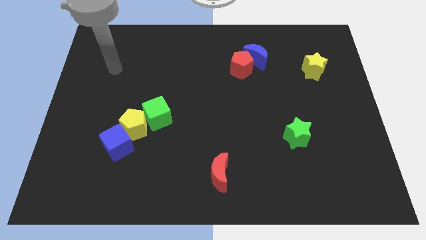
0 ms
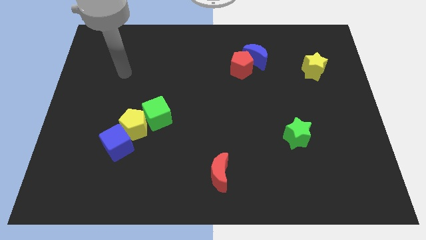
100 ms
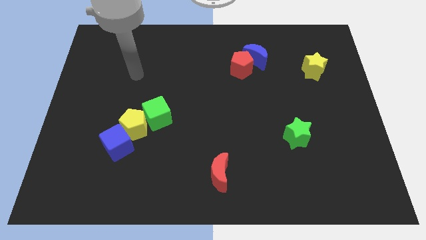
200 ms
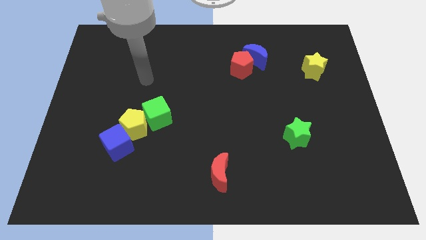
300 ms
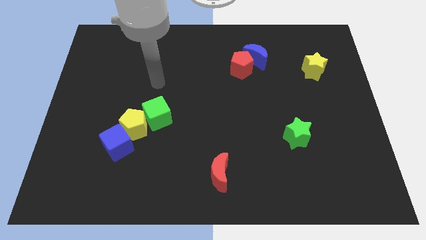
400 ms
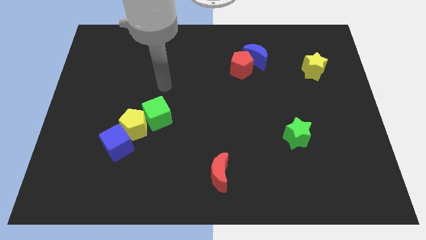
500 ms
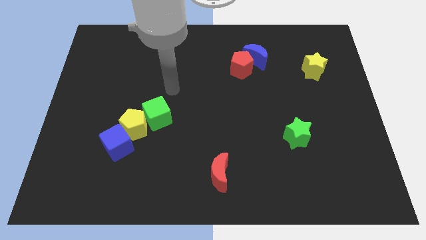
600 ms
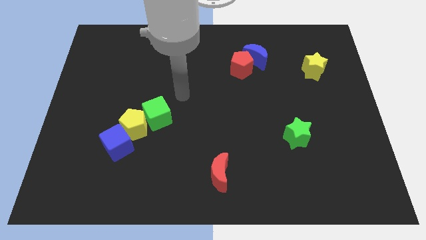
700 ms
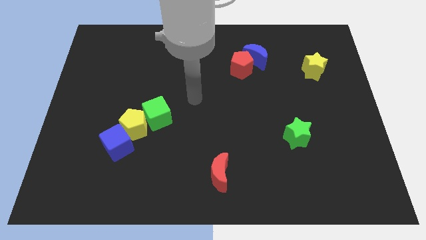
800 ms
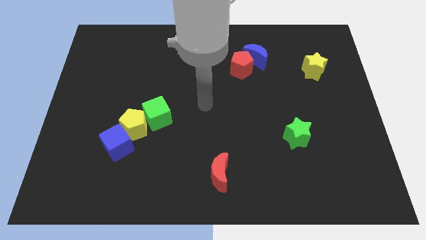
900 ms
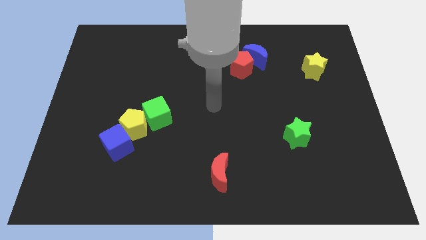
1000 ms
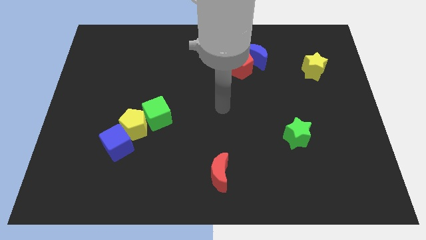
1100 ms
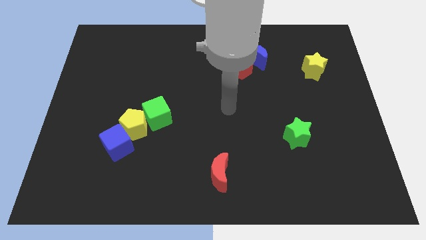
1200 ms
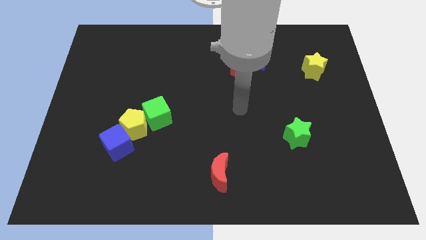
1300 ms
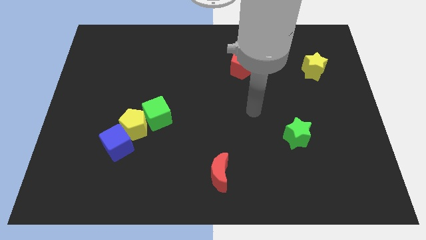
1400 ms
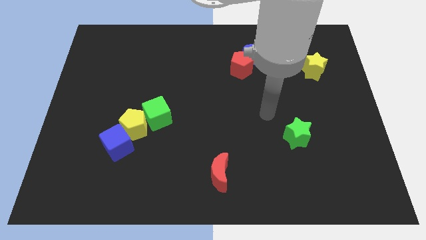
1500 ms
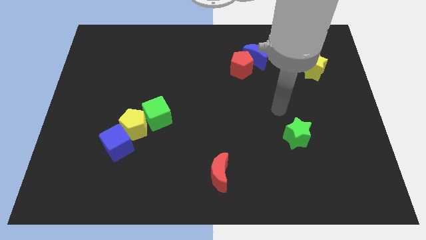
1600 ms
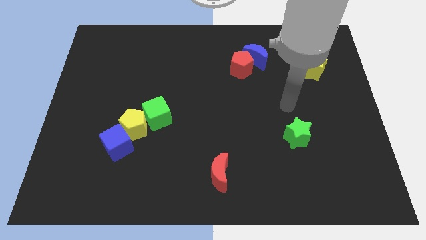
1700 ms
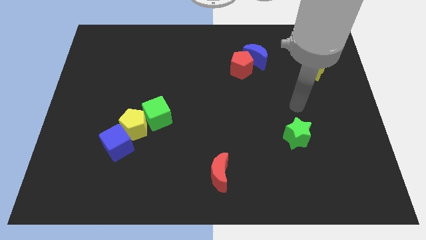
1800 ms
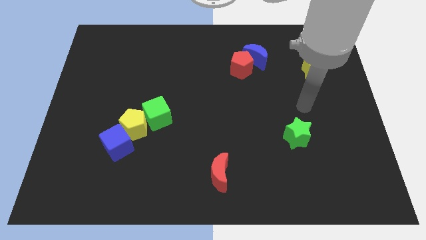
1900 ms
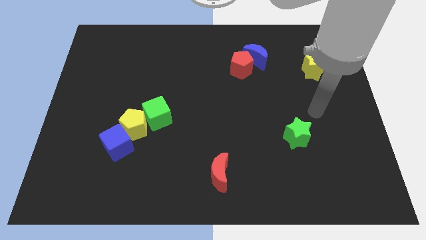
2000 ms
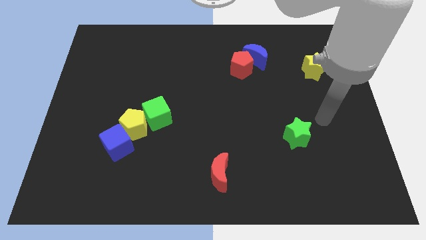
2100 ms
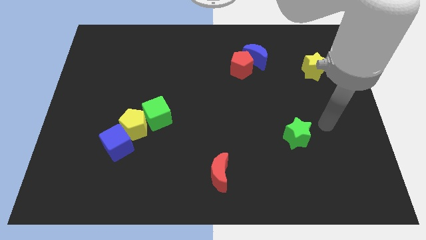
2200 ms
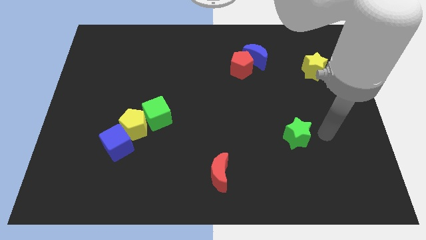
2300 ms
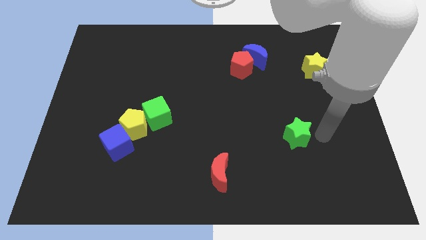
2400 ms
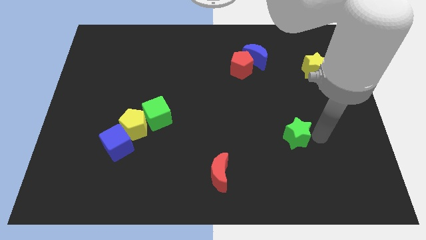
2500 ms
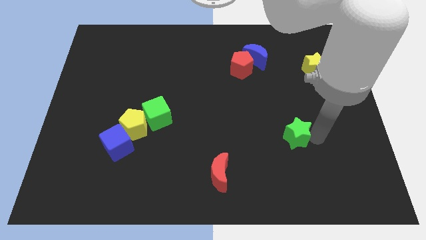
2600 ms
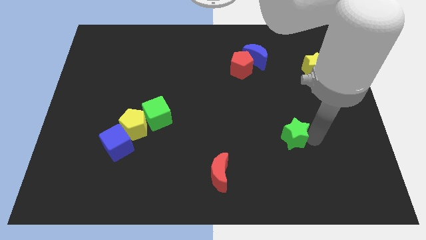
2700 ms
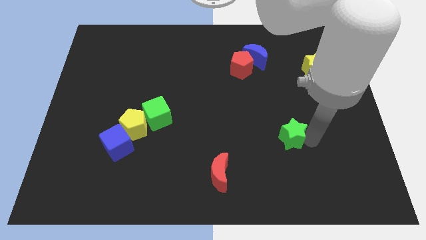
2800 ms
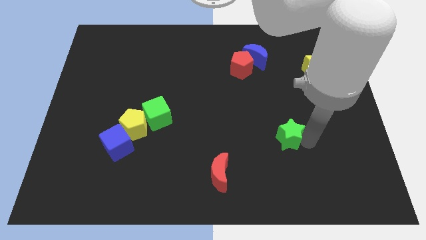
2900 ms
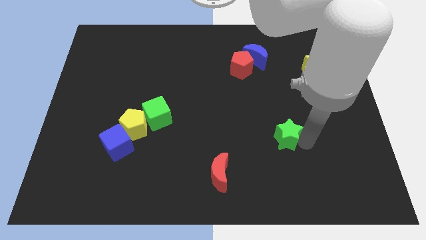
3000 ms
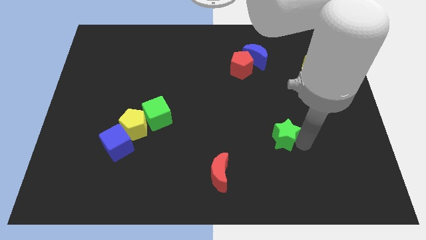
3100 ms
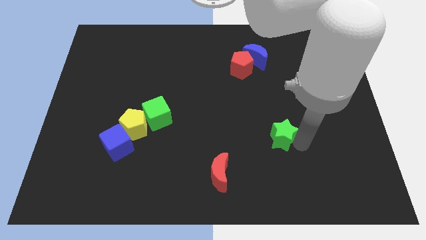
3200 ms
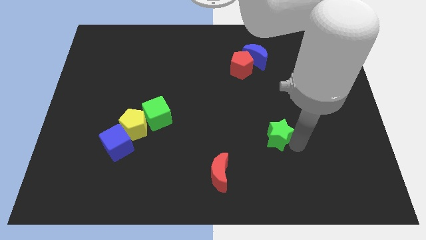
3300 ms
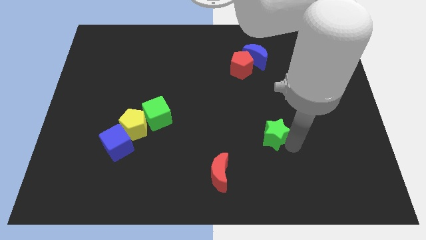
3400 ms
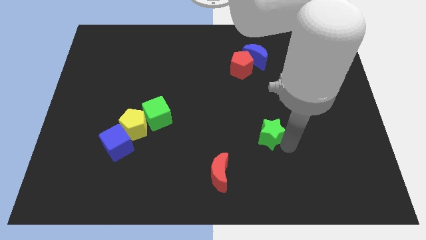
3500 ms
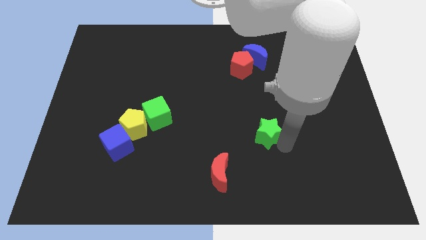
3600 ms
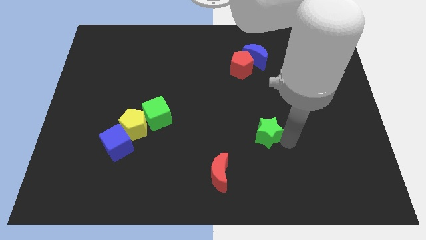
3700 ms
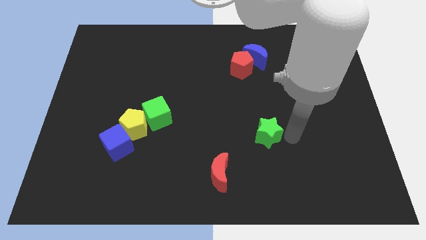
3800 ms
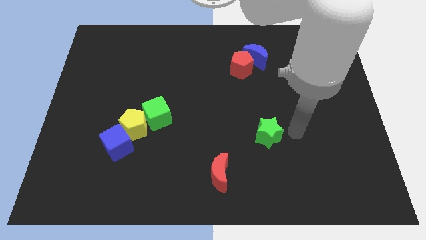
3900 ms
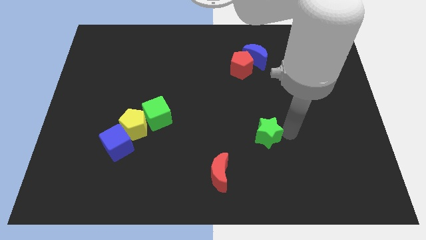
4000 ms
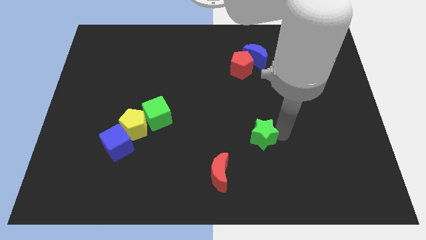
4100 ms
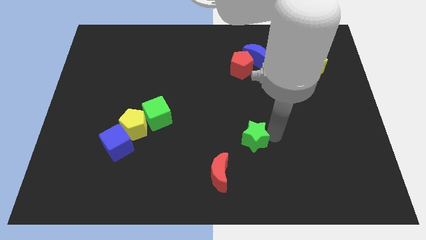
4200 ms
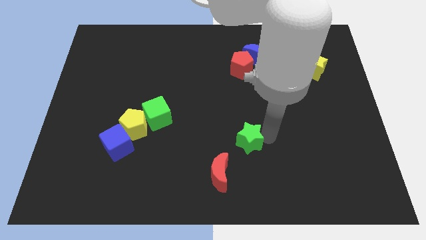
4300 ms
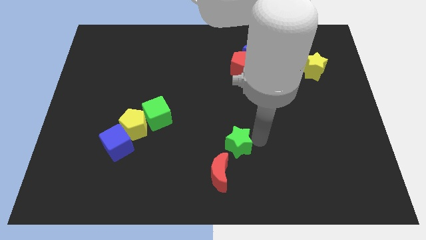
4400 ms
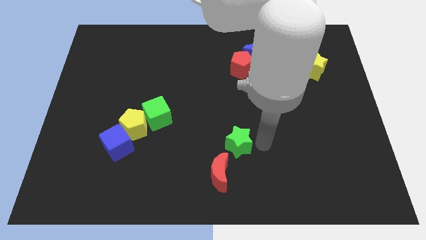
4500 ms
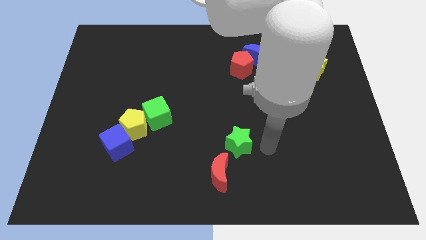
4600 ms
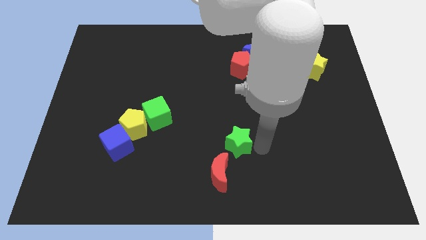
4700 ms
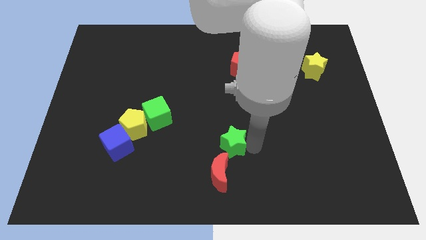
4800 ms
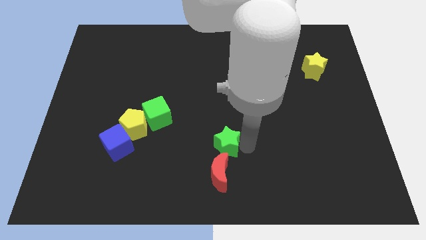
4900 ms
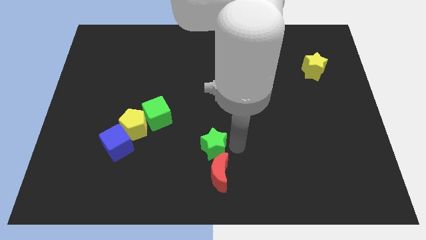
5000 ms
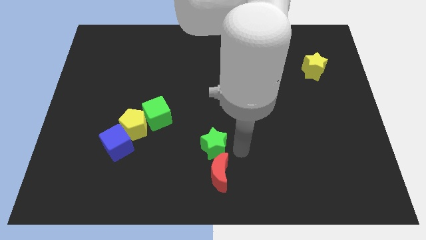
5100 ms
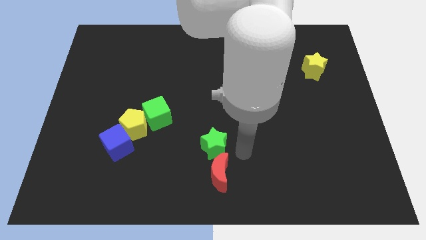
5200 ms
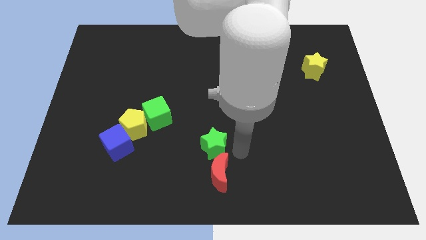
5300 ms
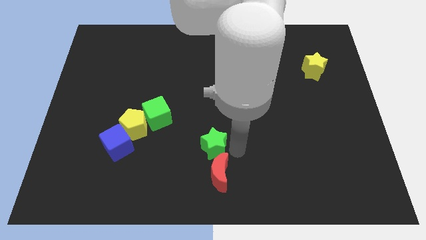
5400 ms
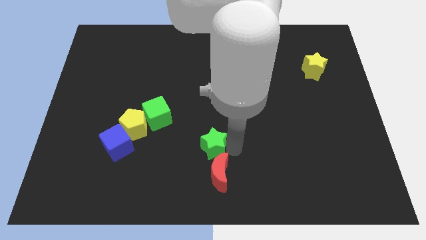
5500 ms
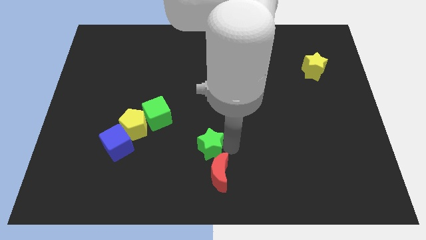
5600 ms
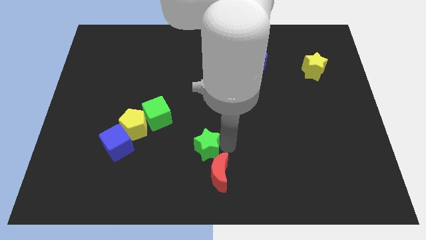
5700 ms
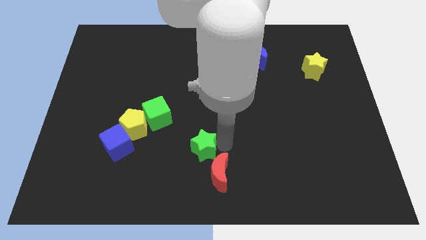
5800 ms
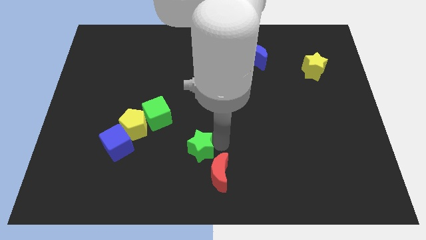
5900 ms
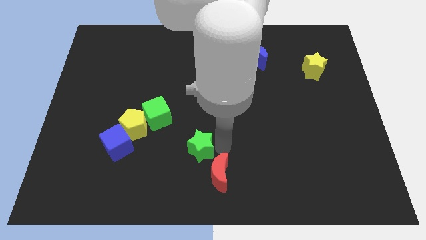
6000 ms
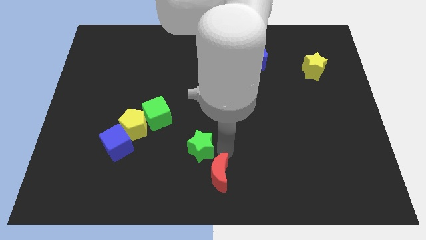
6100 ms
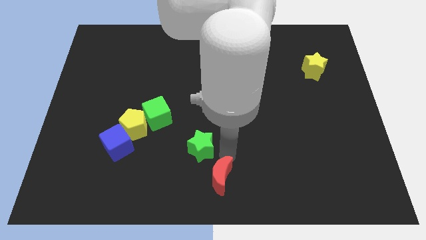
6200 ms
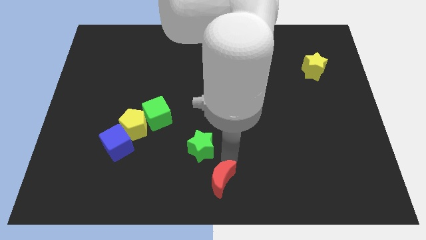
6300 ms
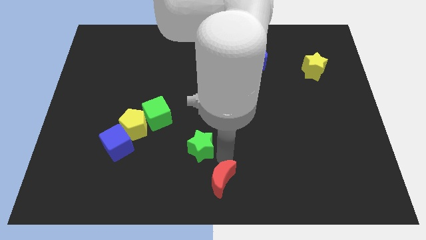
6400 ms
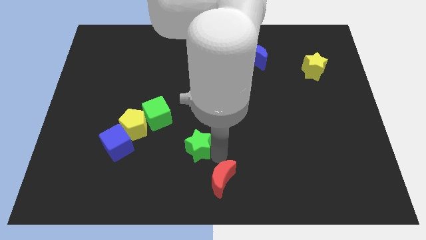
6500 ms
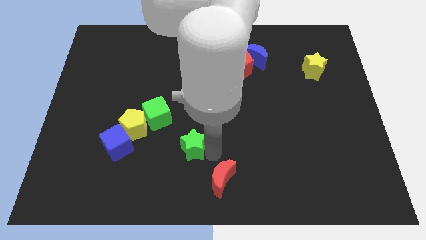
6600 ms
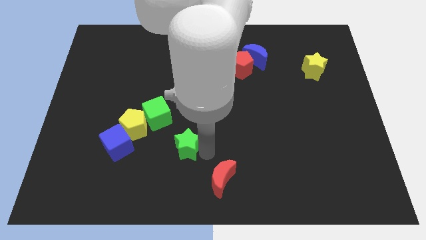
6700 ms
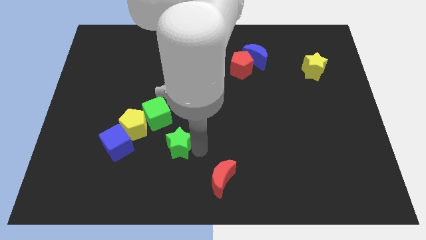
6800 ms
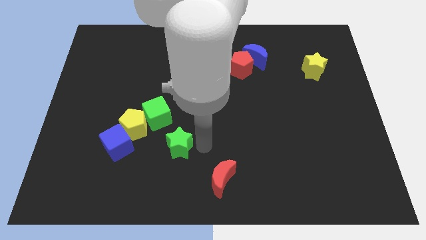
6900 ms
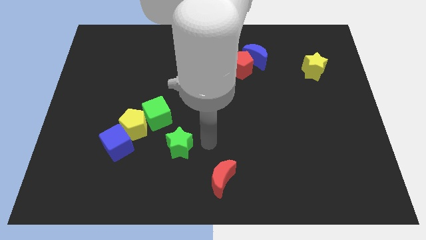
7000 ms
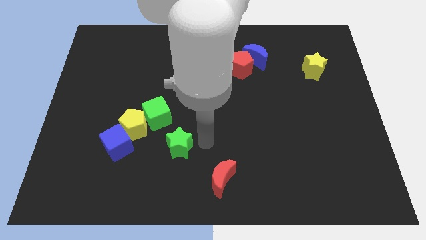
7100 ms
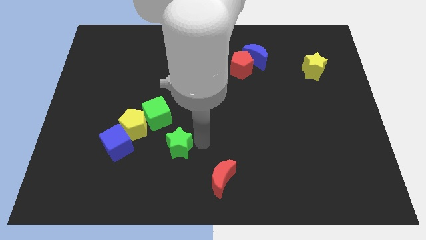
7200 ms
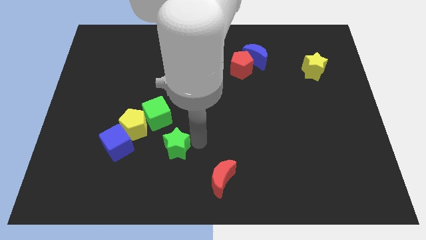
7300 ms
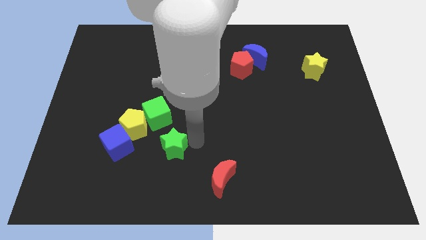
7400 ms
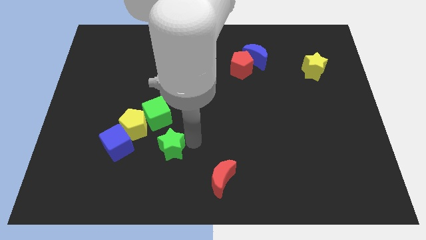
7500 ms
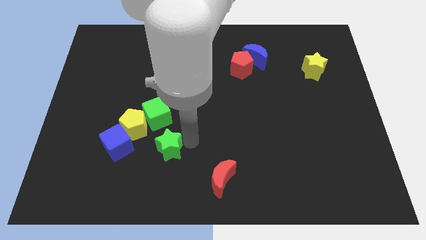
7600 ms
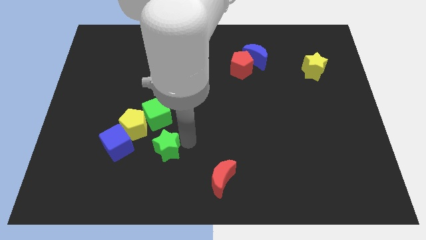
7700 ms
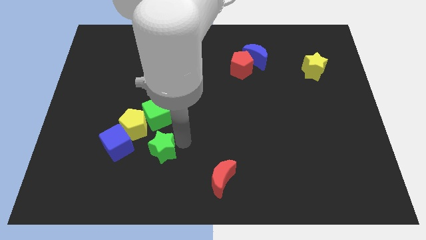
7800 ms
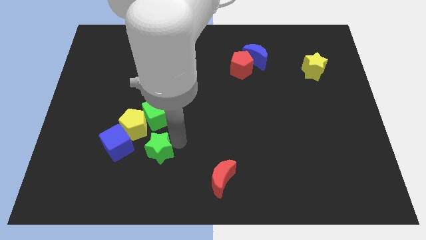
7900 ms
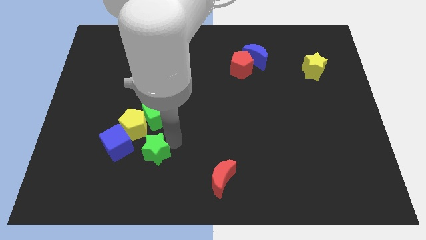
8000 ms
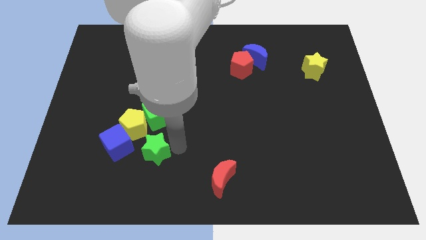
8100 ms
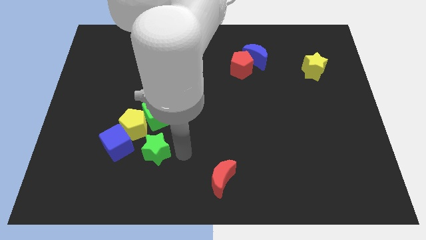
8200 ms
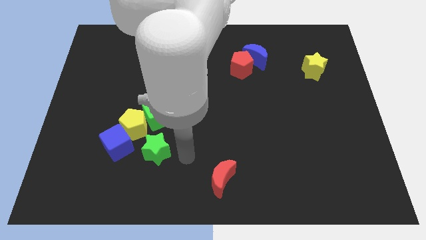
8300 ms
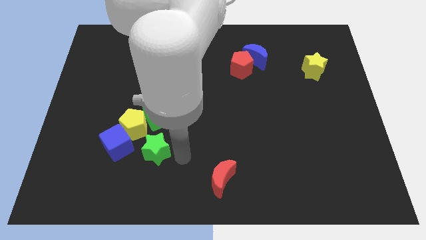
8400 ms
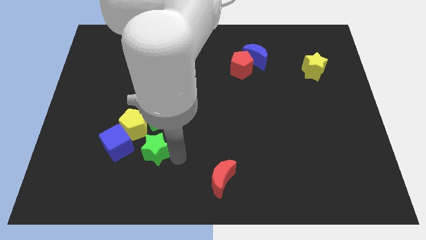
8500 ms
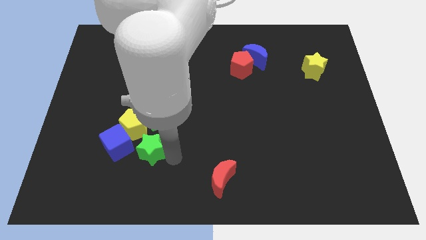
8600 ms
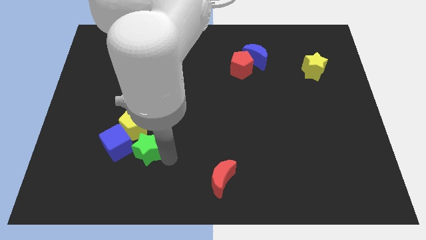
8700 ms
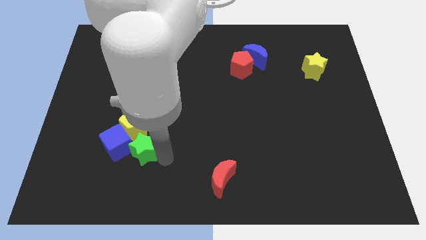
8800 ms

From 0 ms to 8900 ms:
put the green star towards the blue cube
